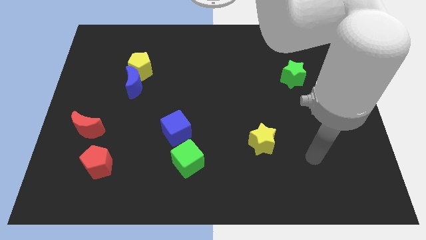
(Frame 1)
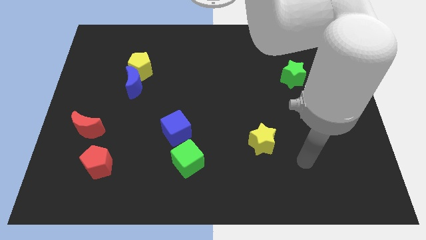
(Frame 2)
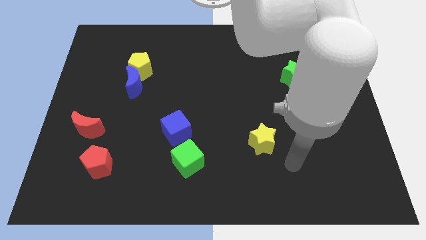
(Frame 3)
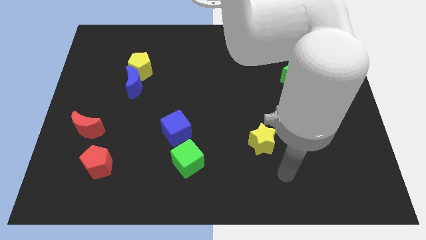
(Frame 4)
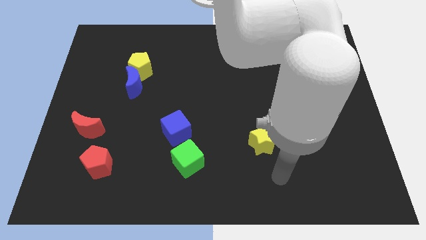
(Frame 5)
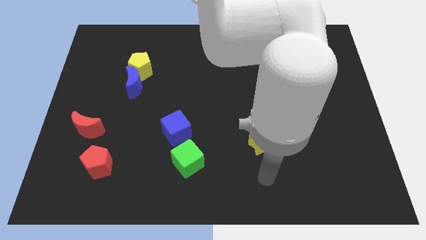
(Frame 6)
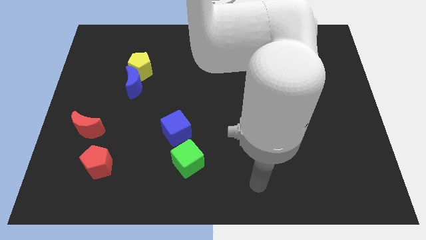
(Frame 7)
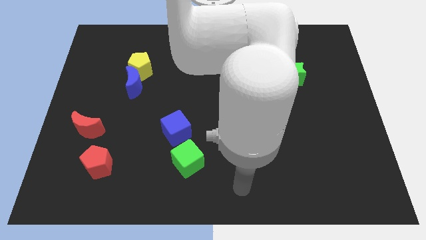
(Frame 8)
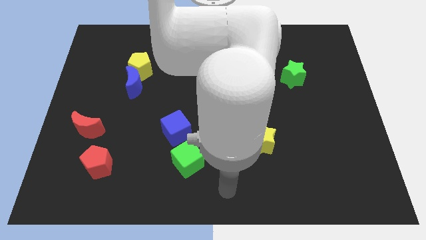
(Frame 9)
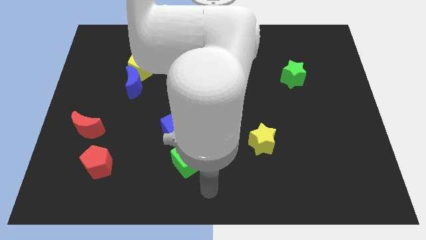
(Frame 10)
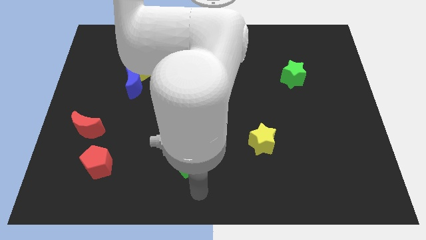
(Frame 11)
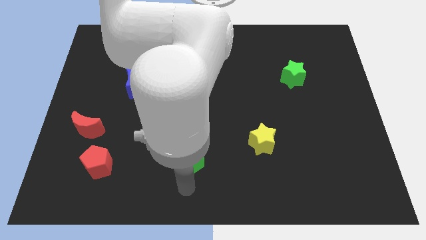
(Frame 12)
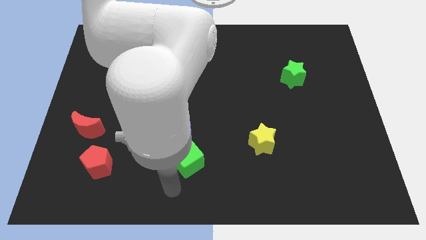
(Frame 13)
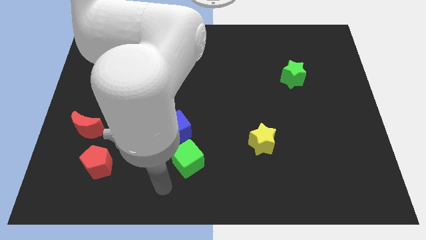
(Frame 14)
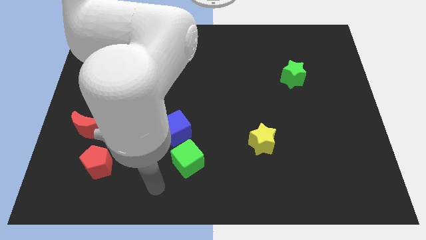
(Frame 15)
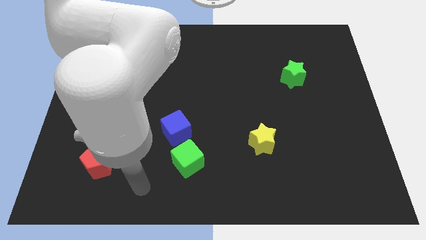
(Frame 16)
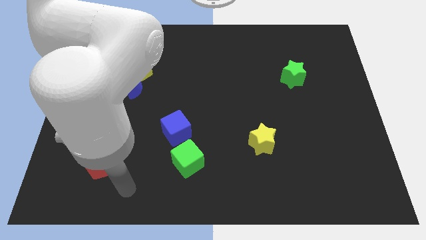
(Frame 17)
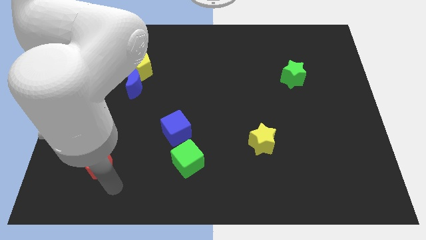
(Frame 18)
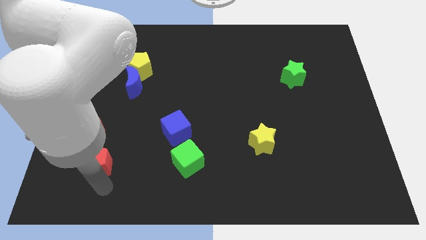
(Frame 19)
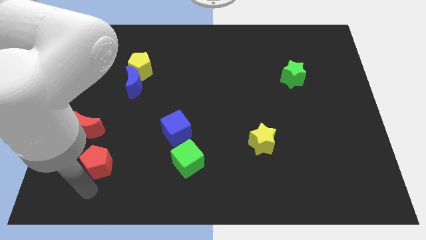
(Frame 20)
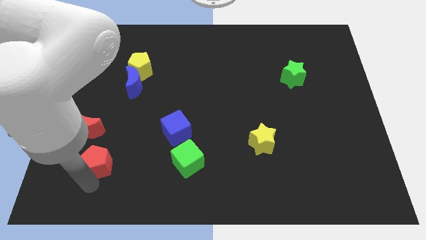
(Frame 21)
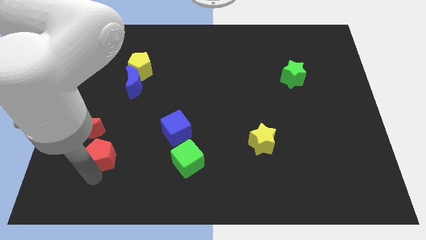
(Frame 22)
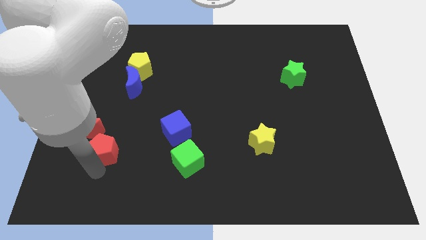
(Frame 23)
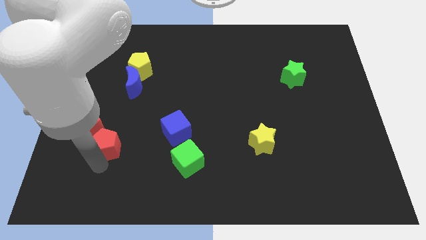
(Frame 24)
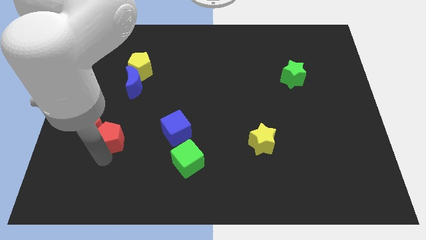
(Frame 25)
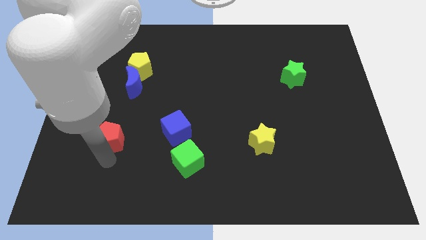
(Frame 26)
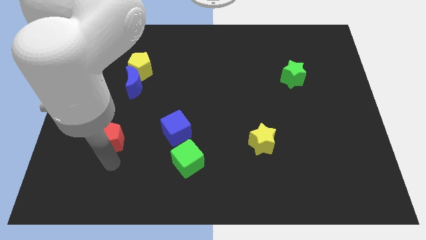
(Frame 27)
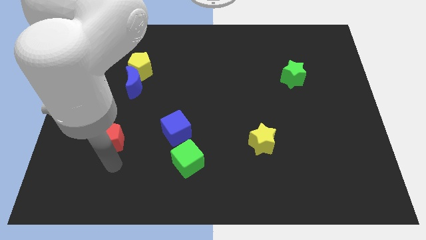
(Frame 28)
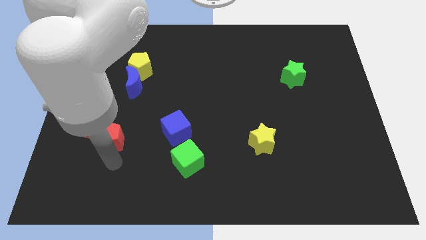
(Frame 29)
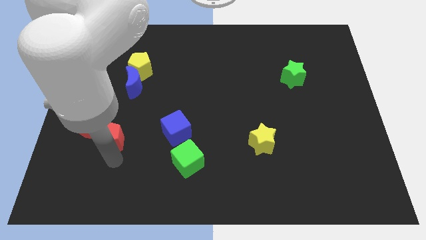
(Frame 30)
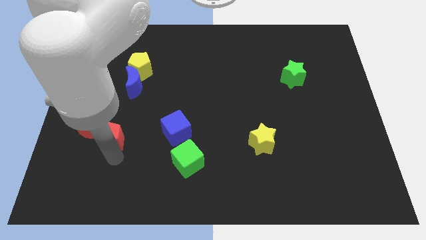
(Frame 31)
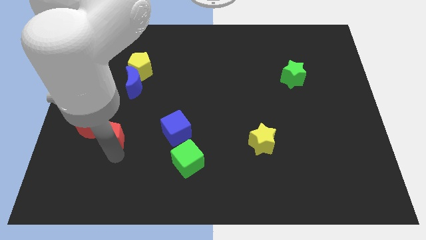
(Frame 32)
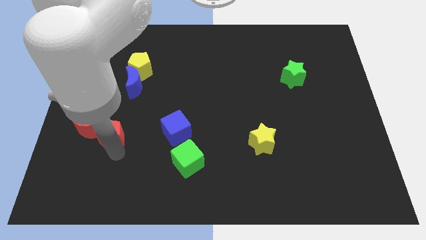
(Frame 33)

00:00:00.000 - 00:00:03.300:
slightly push the red pentagon upwards

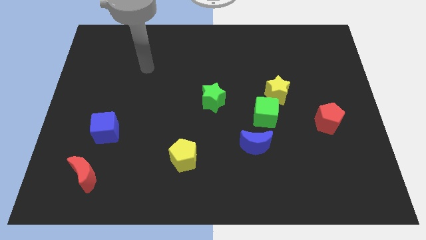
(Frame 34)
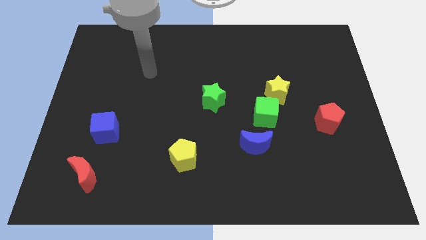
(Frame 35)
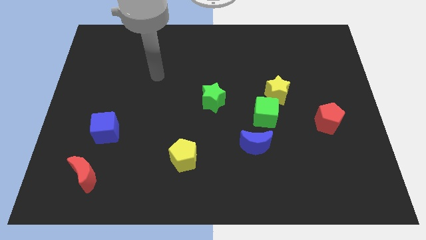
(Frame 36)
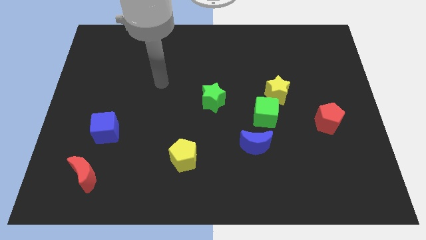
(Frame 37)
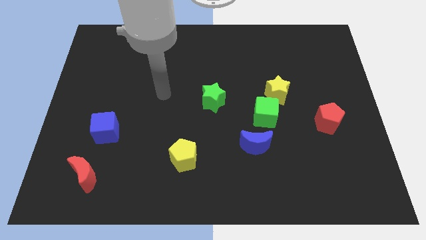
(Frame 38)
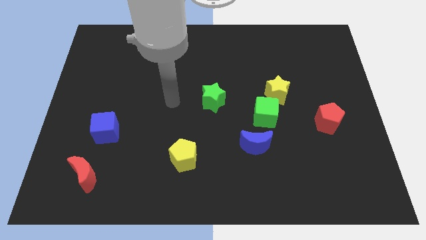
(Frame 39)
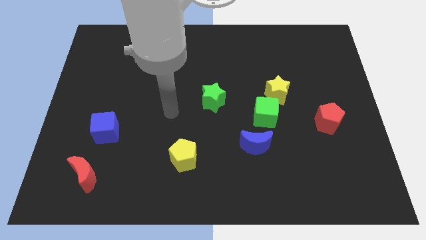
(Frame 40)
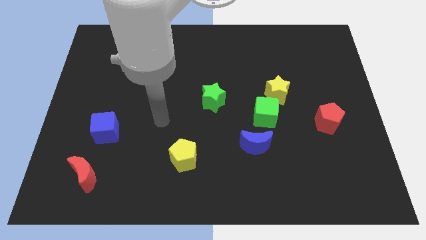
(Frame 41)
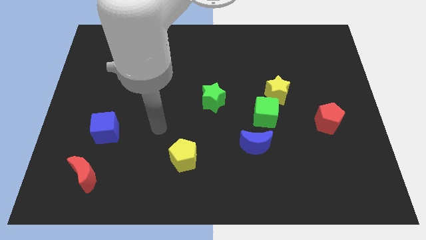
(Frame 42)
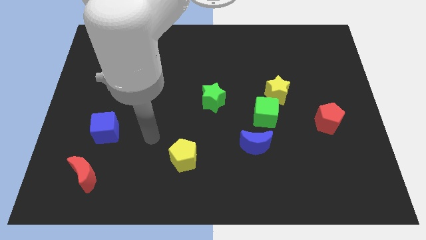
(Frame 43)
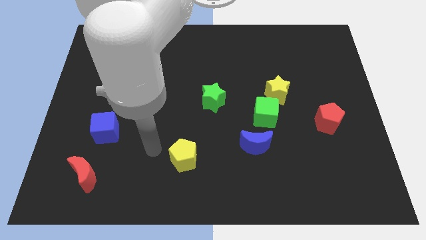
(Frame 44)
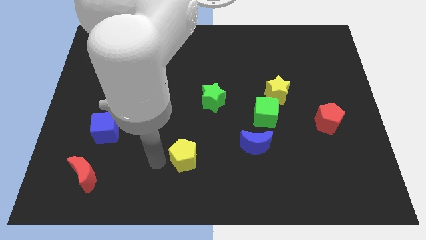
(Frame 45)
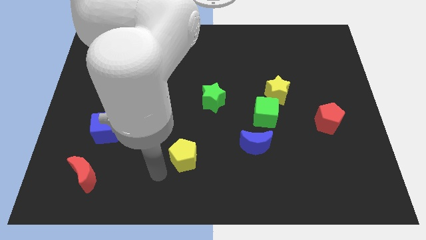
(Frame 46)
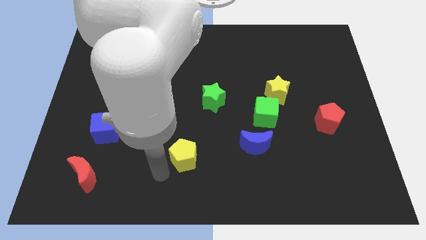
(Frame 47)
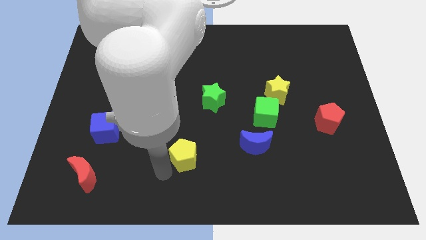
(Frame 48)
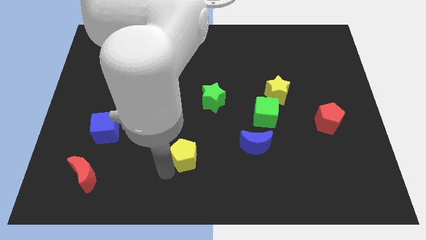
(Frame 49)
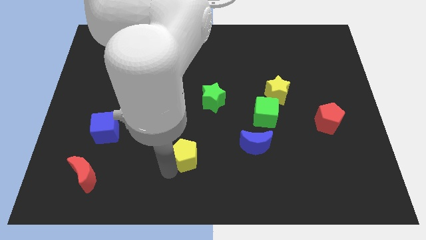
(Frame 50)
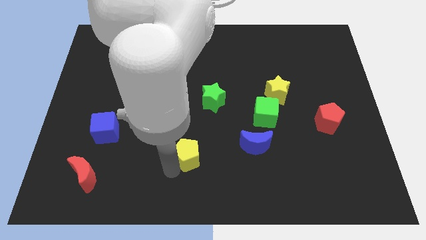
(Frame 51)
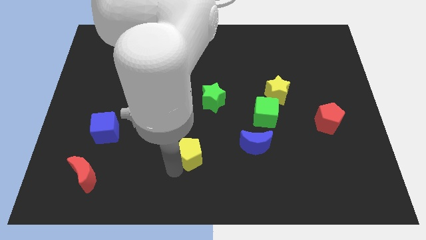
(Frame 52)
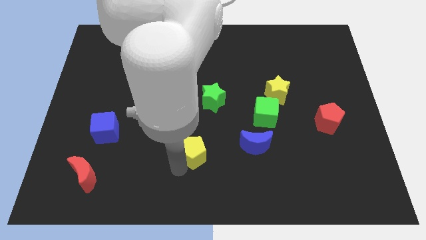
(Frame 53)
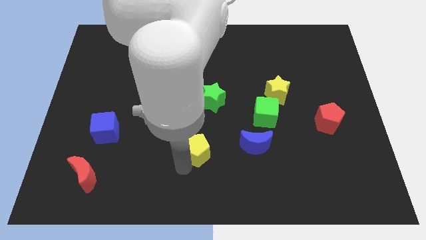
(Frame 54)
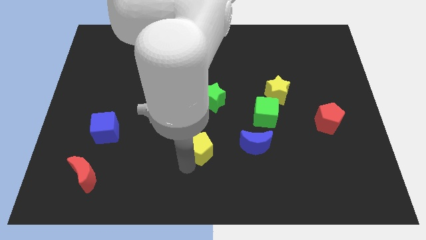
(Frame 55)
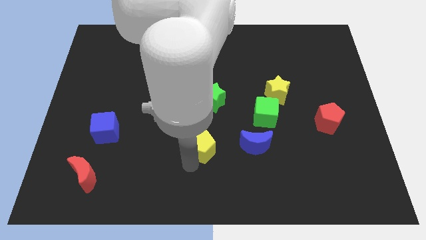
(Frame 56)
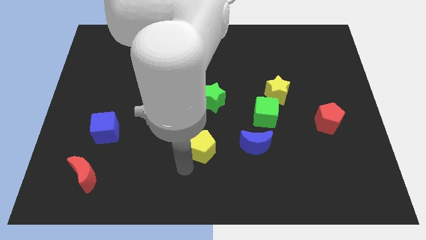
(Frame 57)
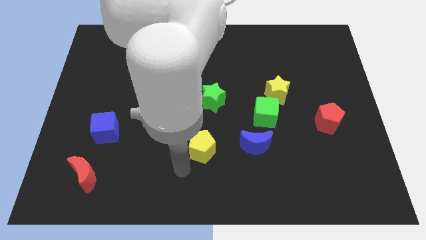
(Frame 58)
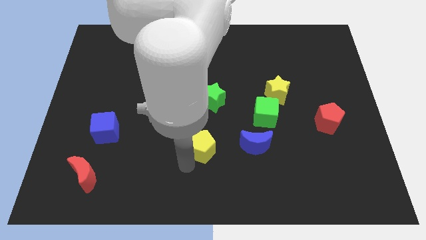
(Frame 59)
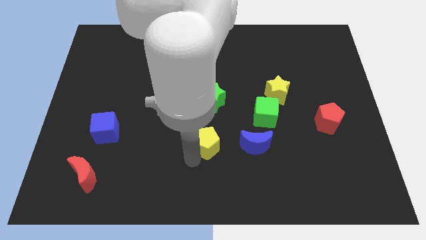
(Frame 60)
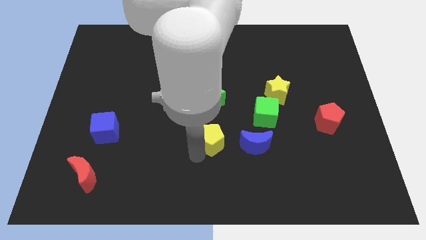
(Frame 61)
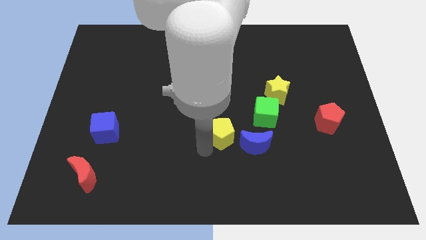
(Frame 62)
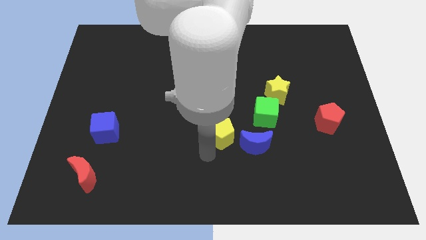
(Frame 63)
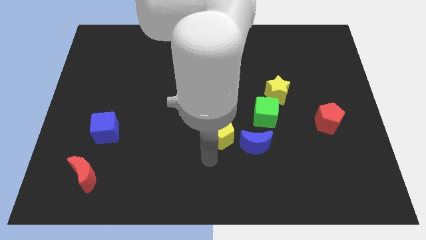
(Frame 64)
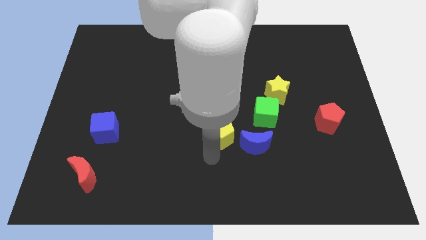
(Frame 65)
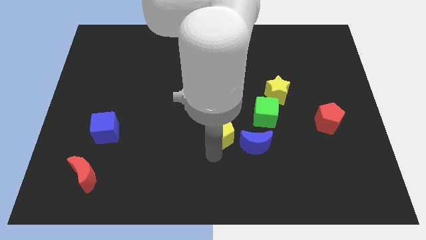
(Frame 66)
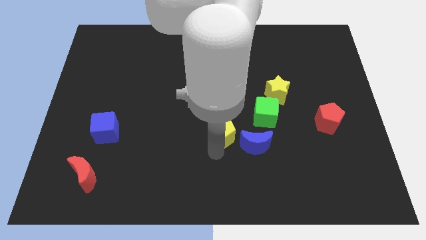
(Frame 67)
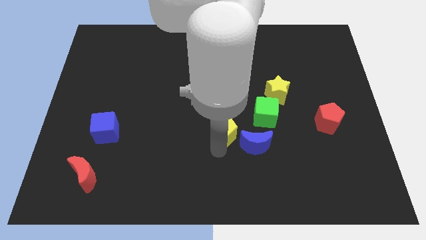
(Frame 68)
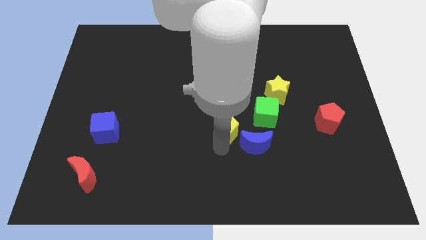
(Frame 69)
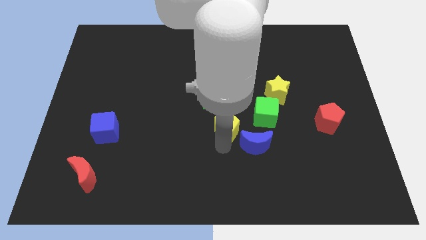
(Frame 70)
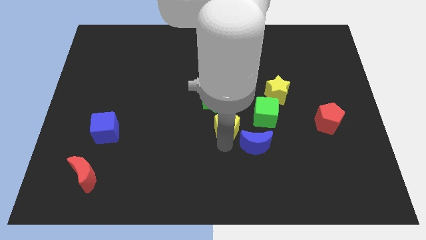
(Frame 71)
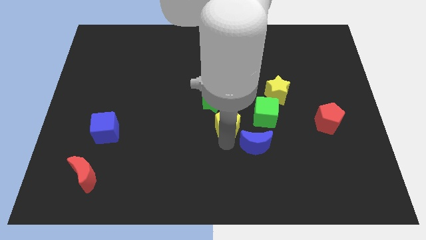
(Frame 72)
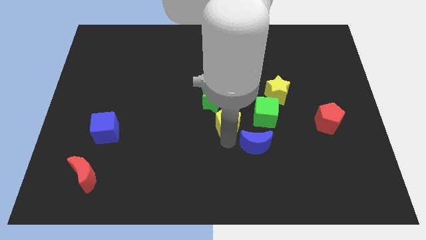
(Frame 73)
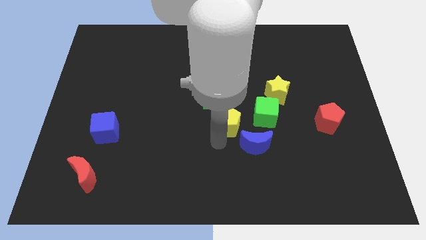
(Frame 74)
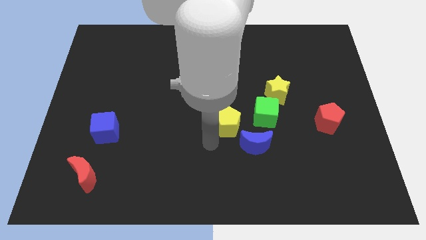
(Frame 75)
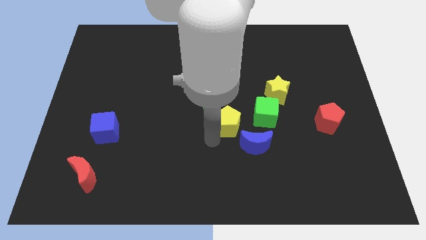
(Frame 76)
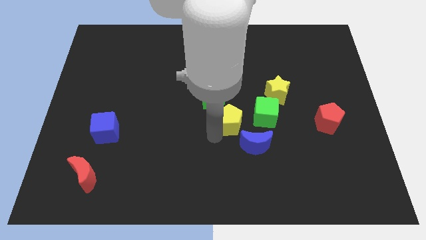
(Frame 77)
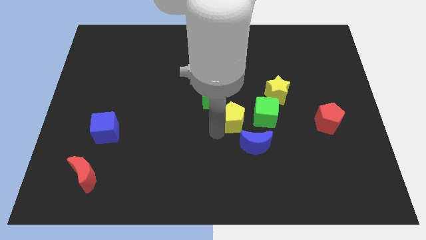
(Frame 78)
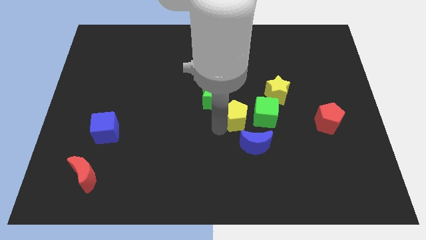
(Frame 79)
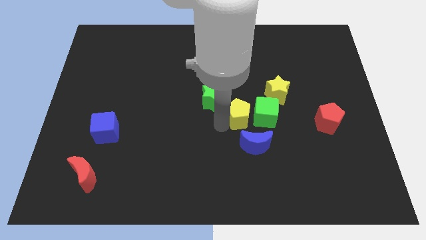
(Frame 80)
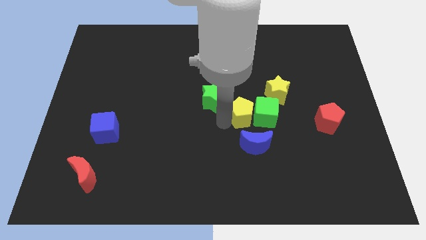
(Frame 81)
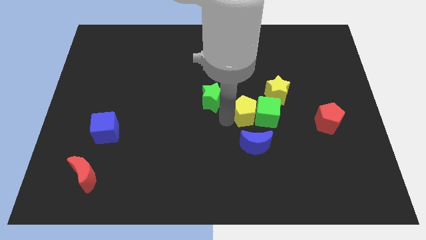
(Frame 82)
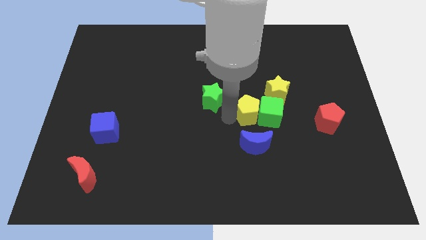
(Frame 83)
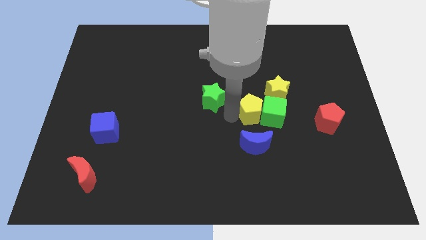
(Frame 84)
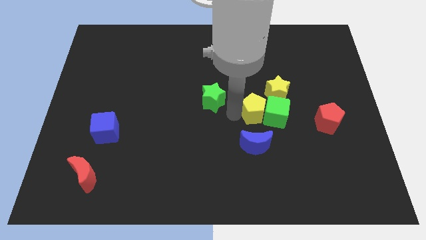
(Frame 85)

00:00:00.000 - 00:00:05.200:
move the yellow pentagon upwards and to the right diagonally
